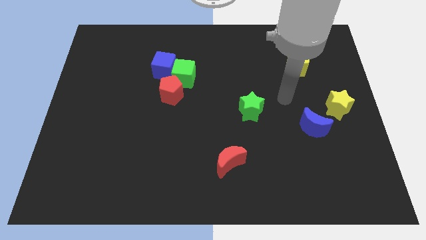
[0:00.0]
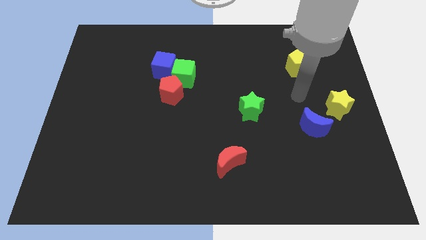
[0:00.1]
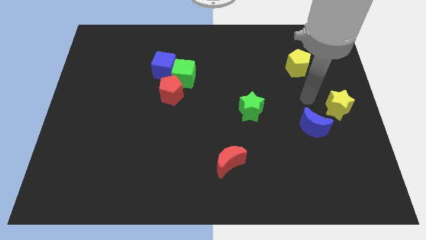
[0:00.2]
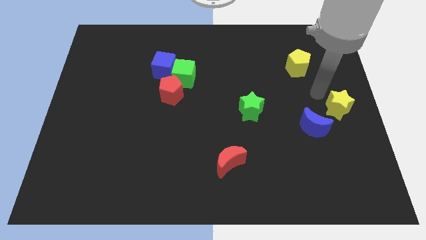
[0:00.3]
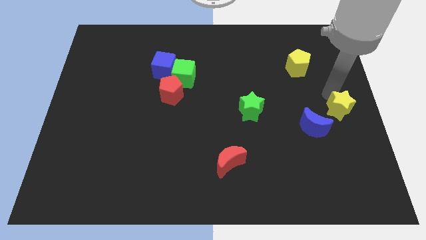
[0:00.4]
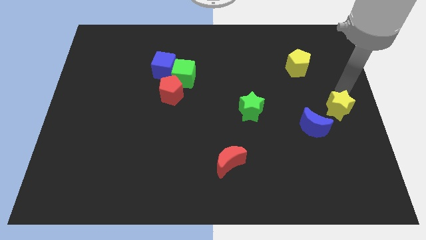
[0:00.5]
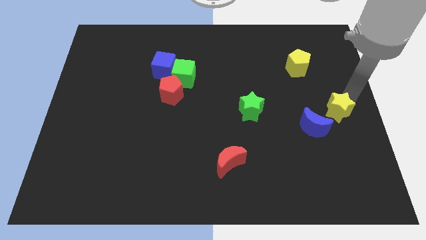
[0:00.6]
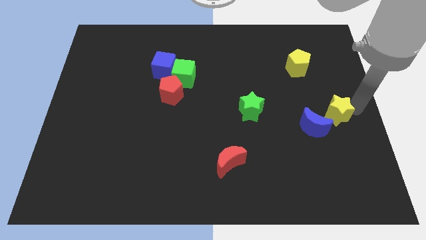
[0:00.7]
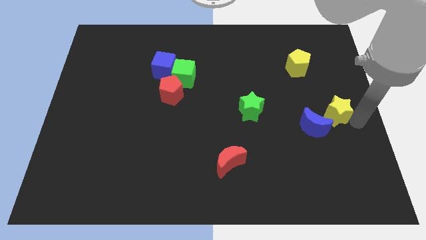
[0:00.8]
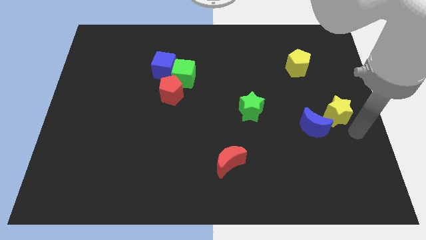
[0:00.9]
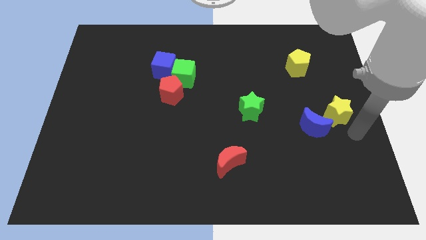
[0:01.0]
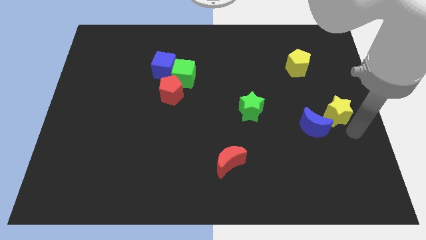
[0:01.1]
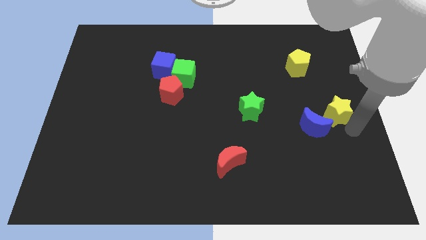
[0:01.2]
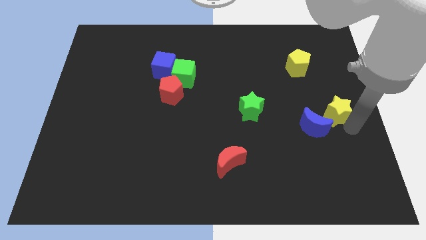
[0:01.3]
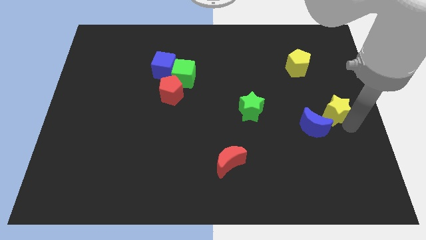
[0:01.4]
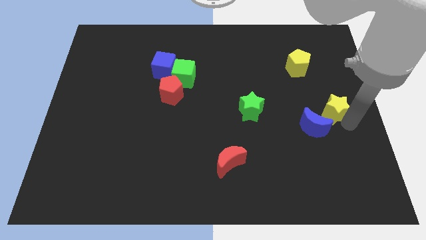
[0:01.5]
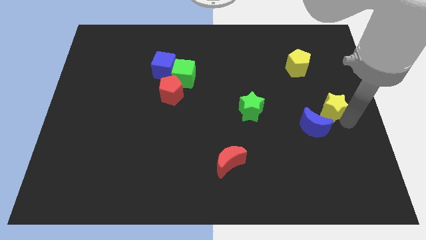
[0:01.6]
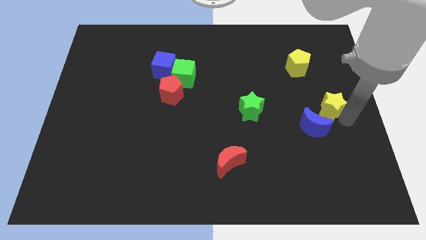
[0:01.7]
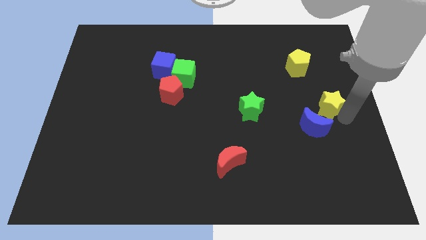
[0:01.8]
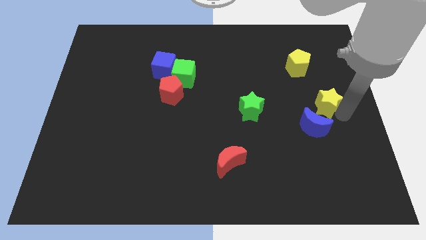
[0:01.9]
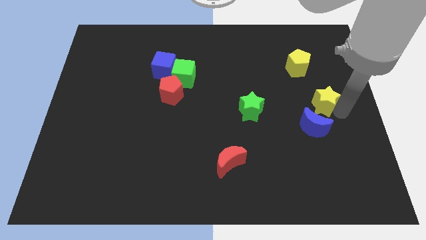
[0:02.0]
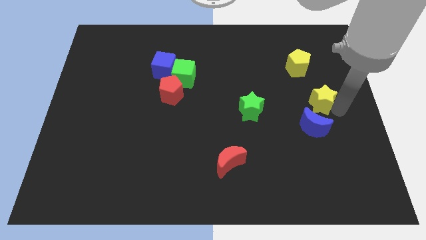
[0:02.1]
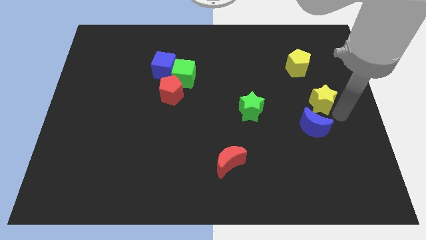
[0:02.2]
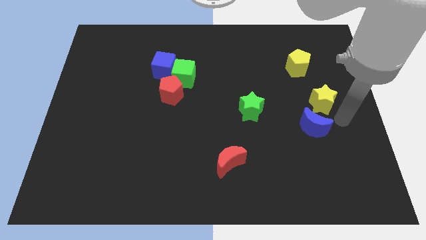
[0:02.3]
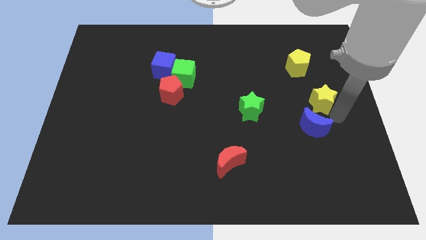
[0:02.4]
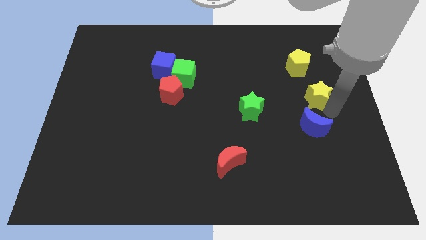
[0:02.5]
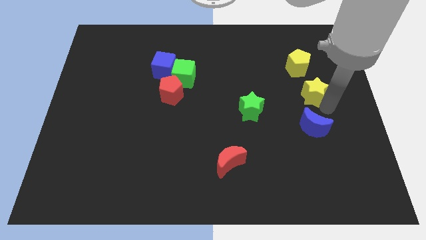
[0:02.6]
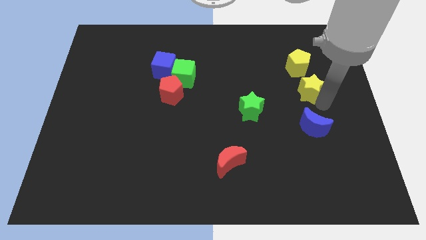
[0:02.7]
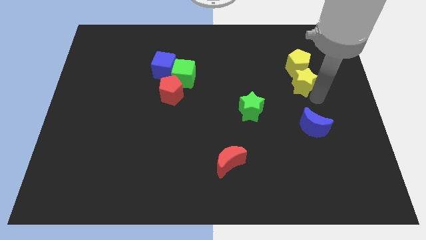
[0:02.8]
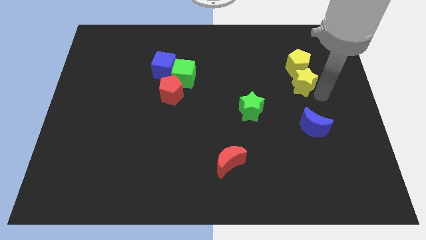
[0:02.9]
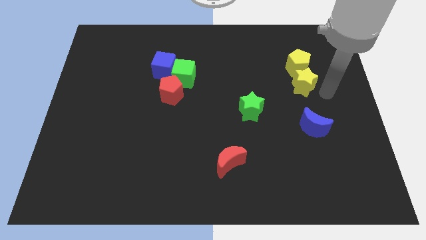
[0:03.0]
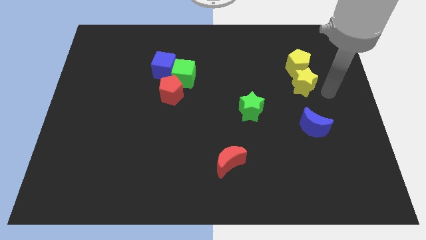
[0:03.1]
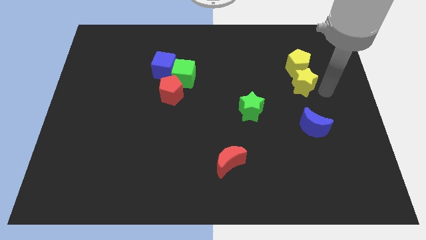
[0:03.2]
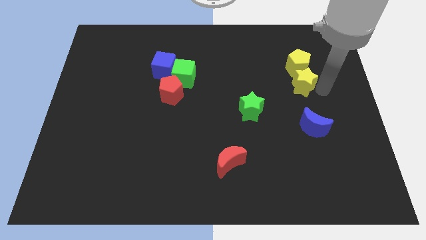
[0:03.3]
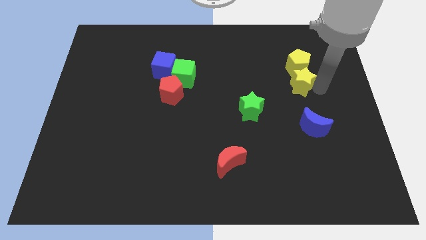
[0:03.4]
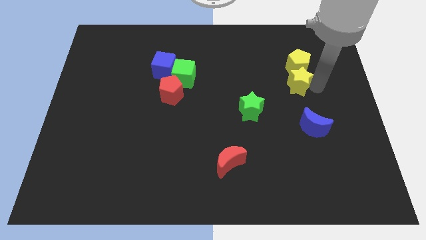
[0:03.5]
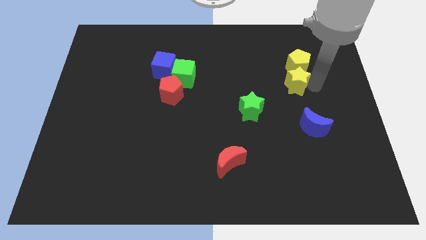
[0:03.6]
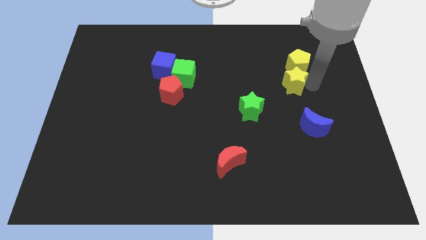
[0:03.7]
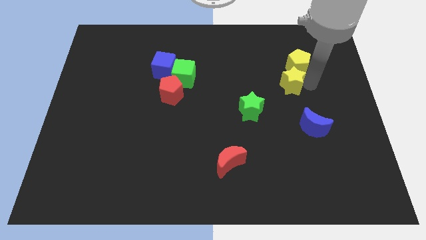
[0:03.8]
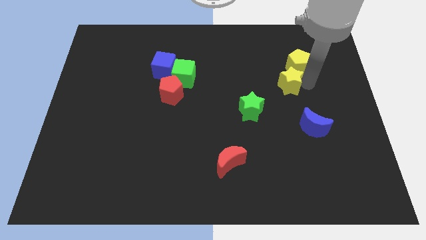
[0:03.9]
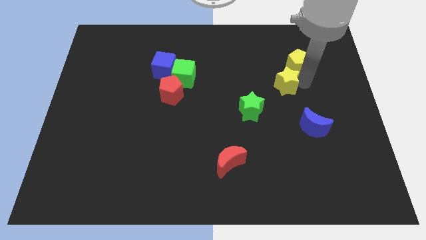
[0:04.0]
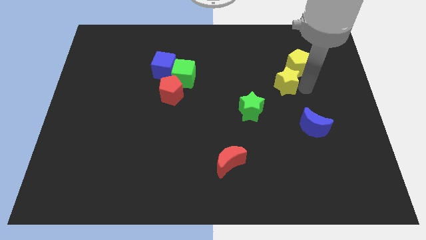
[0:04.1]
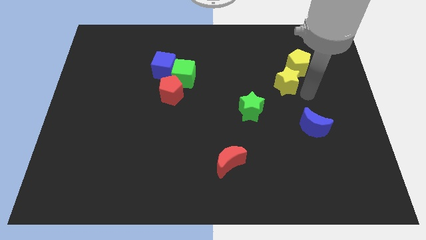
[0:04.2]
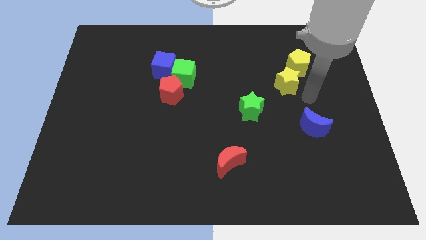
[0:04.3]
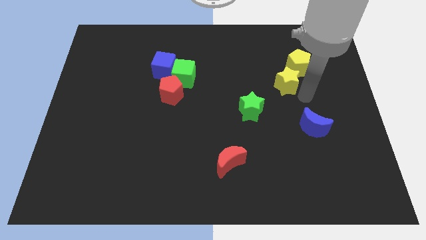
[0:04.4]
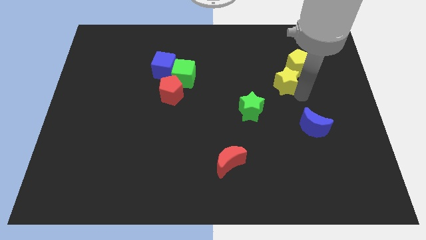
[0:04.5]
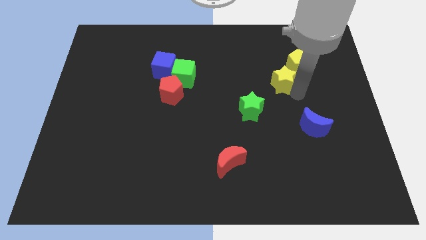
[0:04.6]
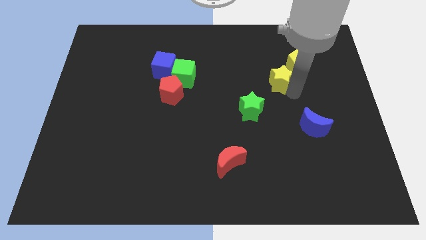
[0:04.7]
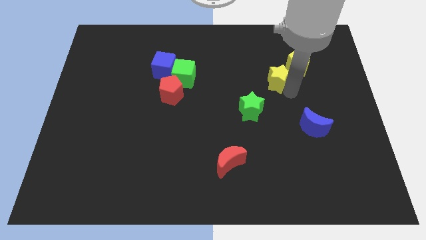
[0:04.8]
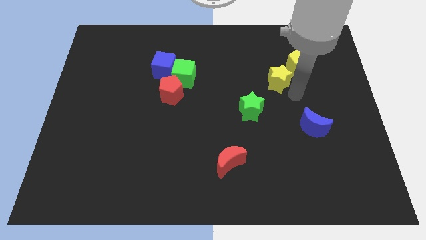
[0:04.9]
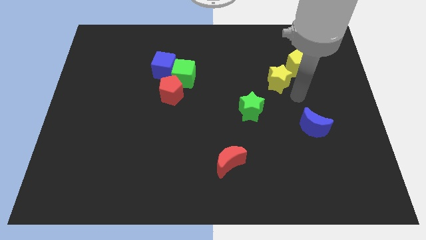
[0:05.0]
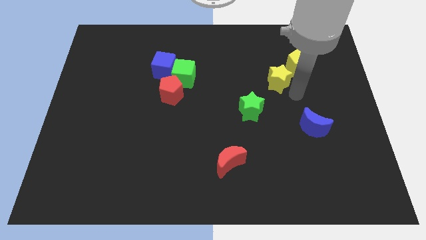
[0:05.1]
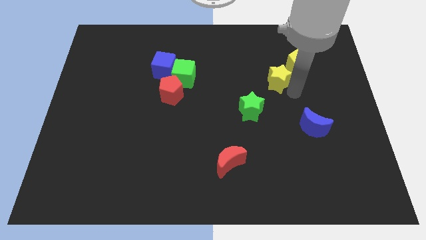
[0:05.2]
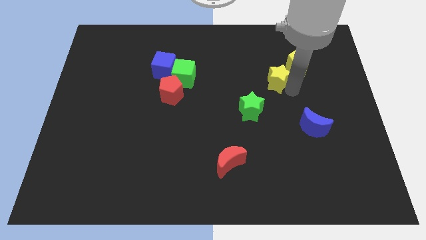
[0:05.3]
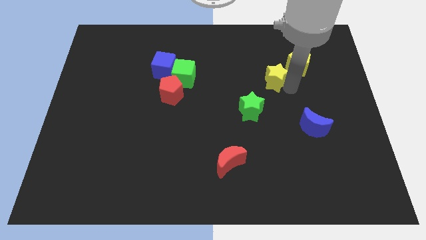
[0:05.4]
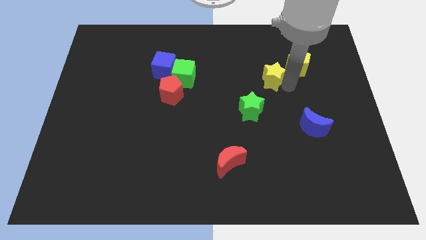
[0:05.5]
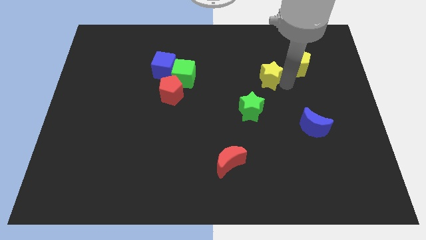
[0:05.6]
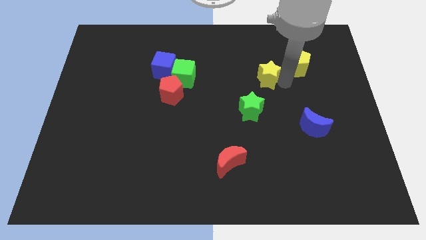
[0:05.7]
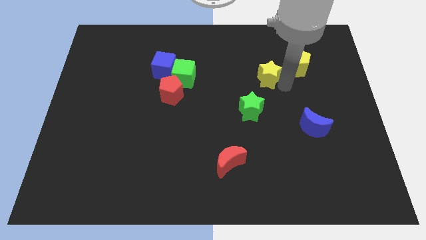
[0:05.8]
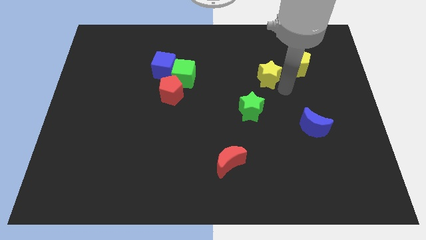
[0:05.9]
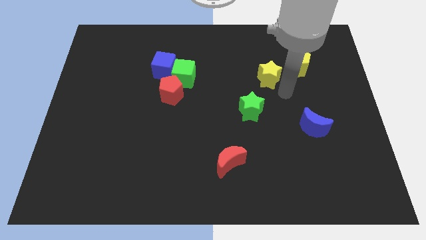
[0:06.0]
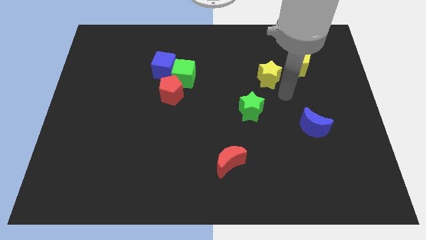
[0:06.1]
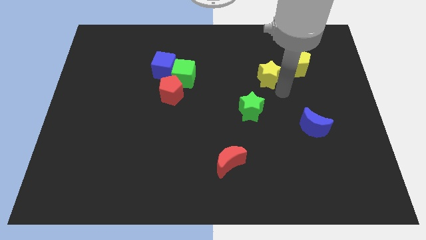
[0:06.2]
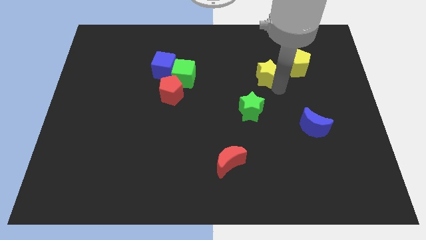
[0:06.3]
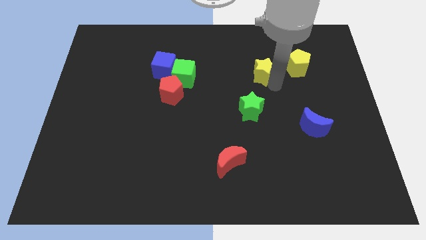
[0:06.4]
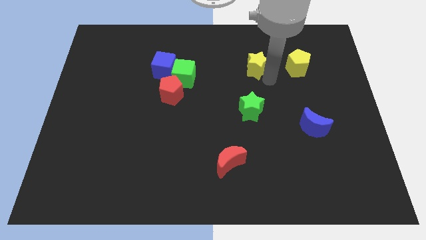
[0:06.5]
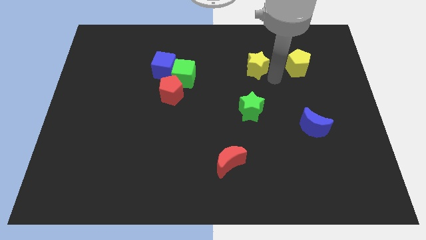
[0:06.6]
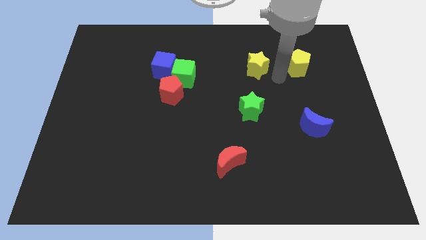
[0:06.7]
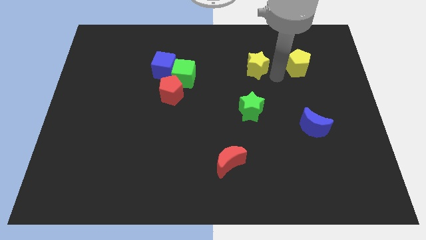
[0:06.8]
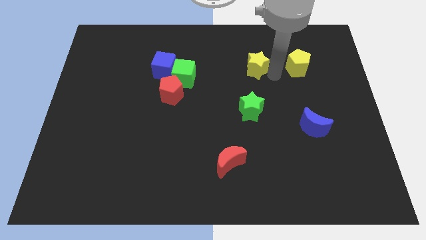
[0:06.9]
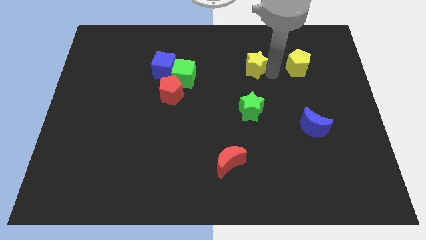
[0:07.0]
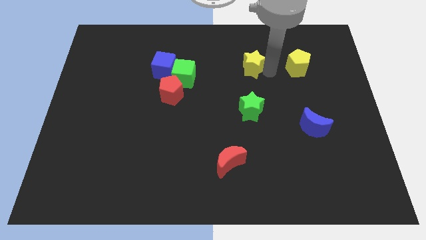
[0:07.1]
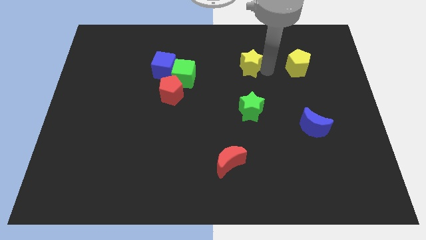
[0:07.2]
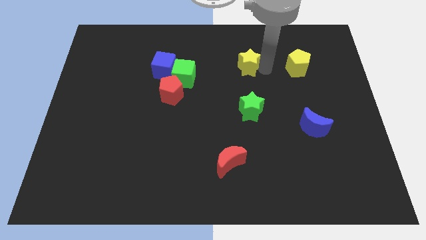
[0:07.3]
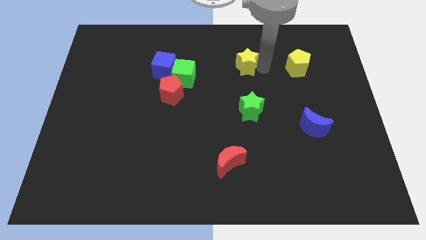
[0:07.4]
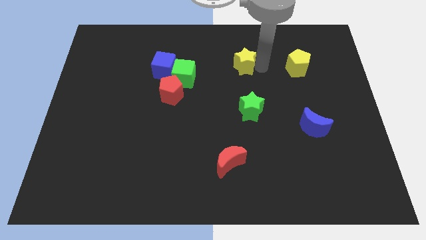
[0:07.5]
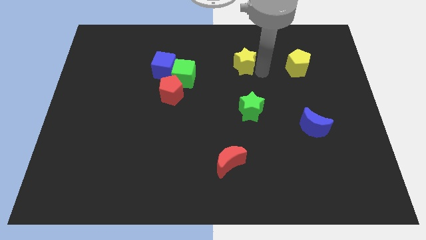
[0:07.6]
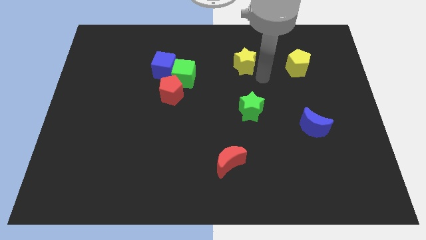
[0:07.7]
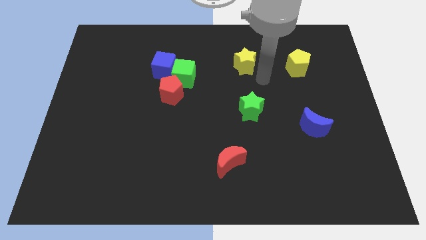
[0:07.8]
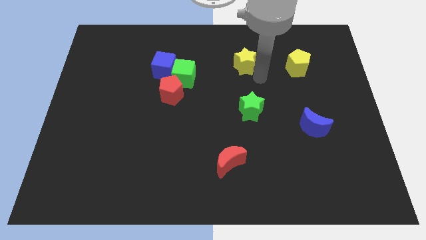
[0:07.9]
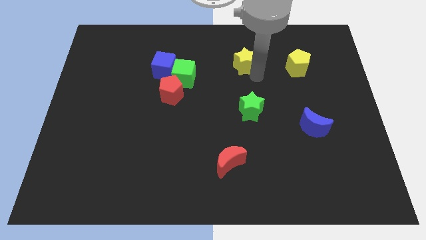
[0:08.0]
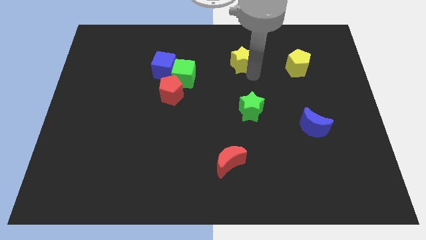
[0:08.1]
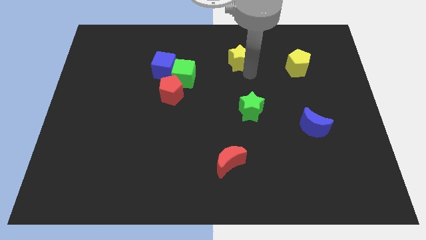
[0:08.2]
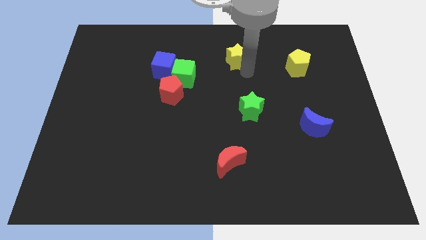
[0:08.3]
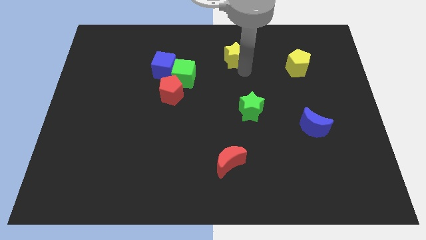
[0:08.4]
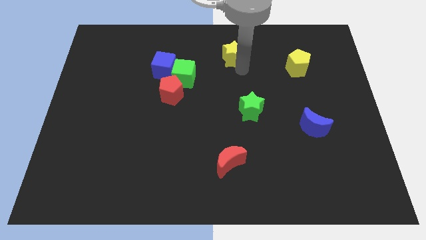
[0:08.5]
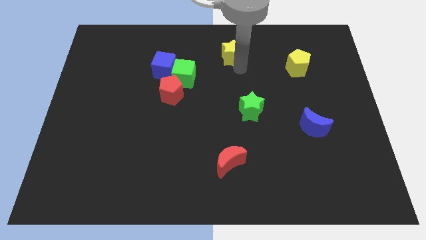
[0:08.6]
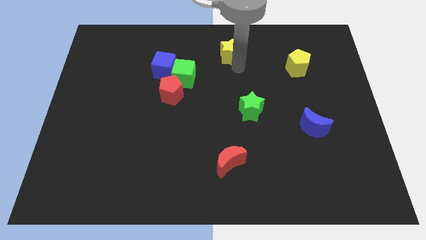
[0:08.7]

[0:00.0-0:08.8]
slide the yellow star to the towards your base
